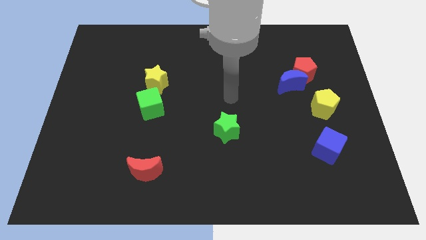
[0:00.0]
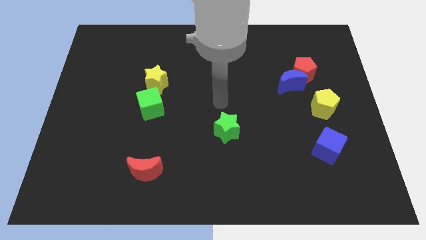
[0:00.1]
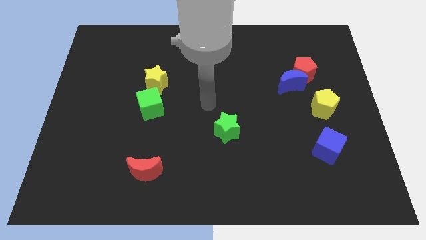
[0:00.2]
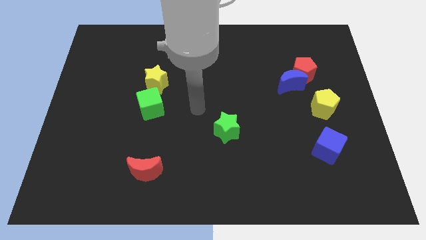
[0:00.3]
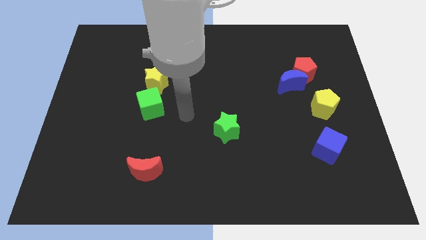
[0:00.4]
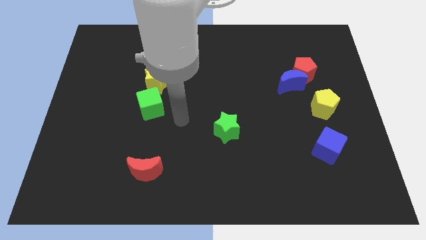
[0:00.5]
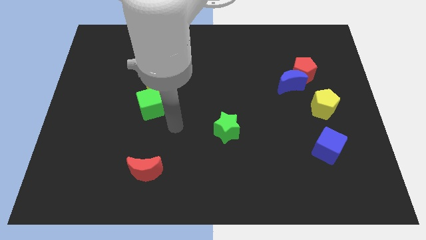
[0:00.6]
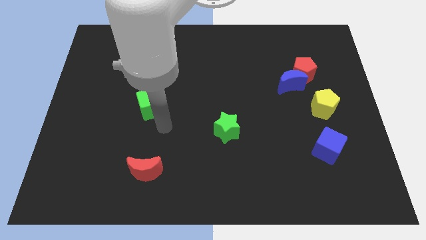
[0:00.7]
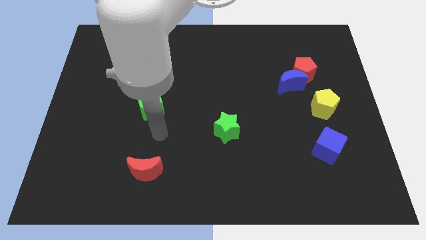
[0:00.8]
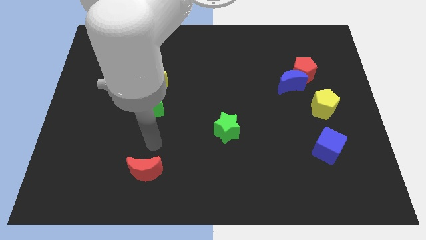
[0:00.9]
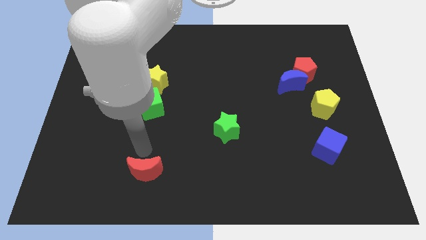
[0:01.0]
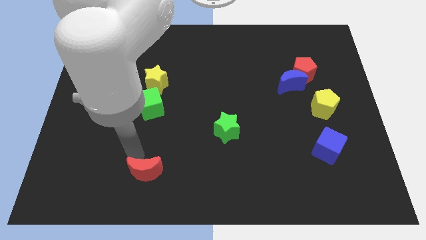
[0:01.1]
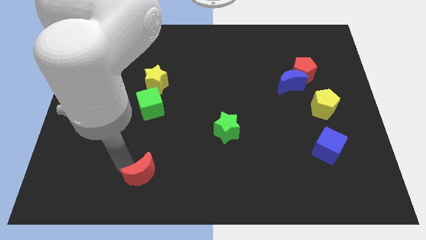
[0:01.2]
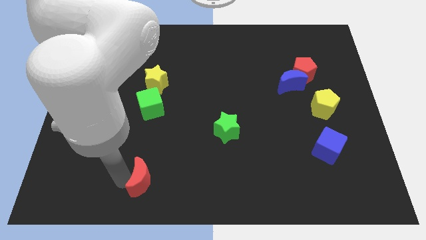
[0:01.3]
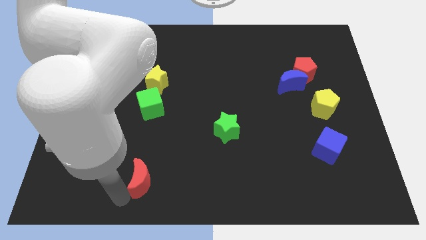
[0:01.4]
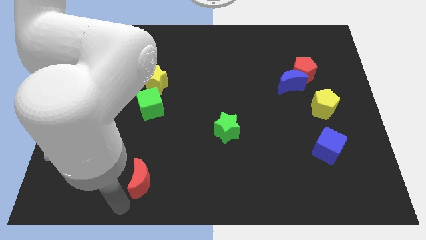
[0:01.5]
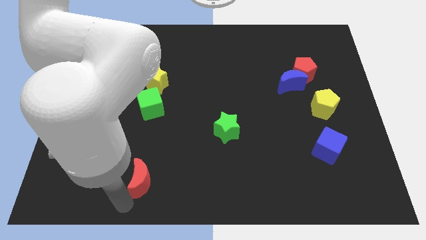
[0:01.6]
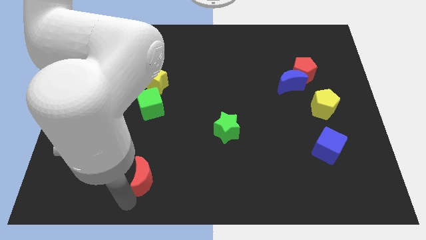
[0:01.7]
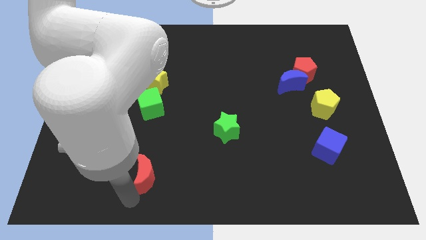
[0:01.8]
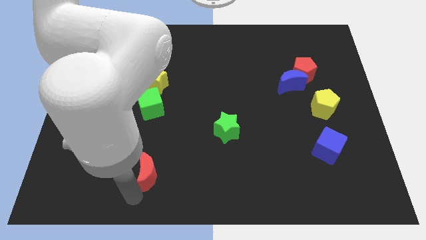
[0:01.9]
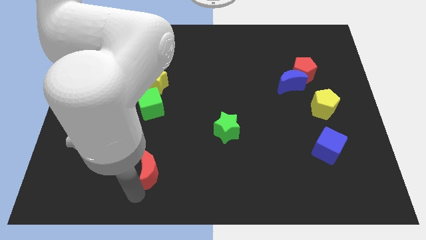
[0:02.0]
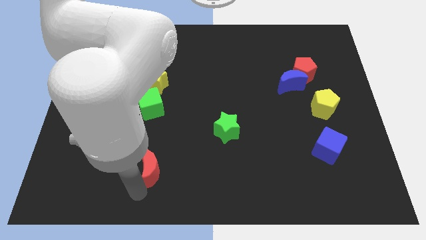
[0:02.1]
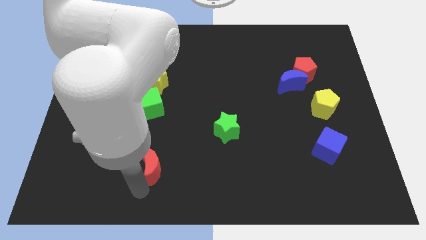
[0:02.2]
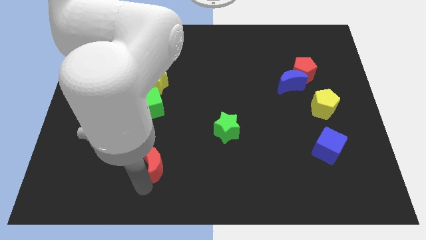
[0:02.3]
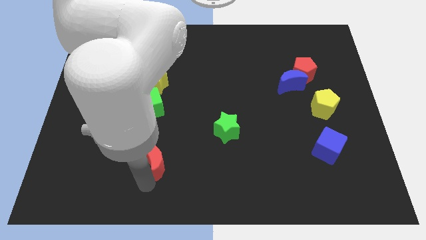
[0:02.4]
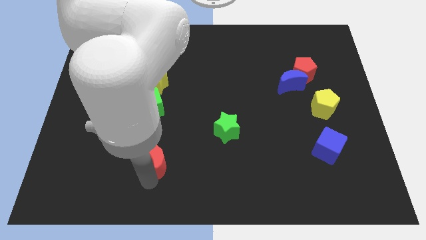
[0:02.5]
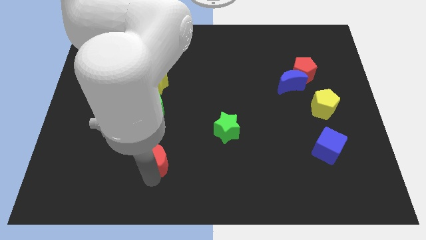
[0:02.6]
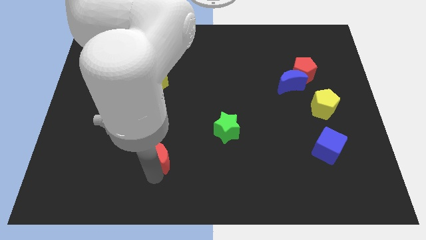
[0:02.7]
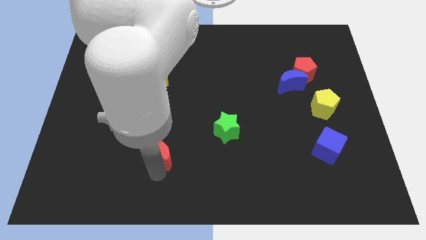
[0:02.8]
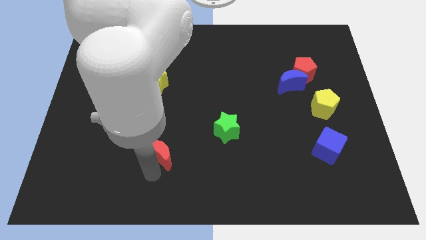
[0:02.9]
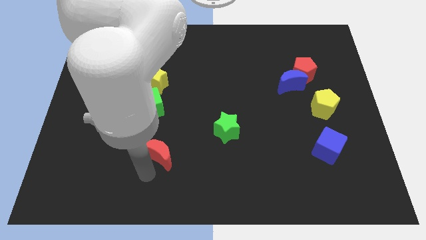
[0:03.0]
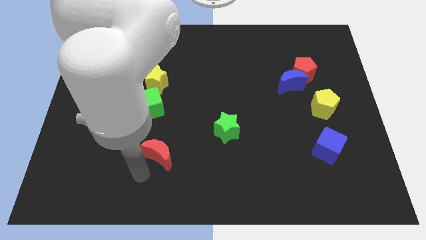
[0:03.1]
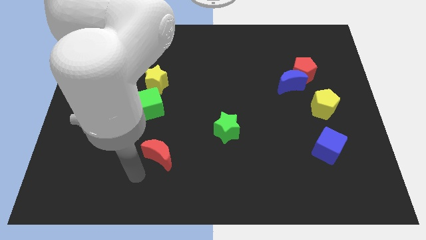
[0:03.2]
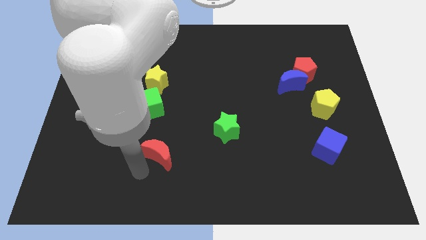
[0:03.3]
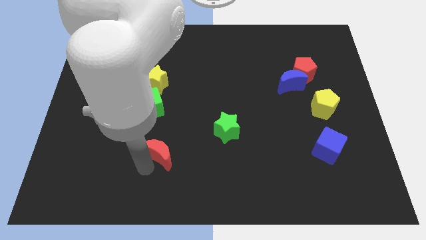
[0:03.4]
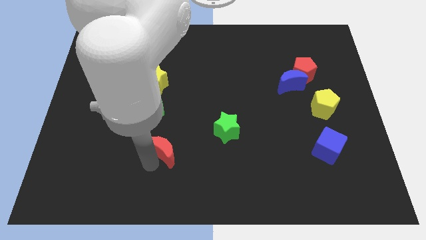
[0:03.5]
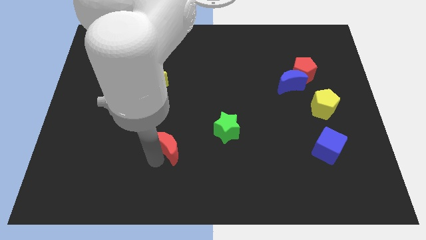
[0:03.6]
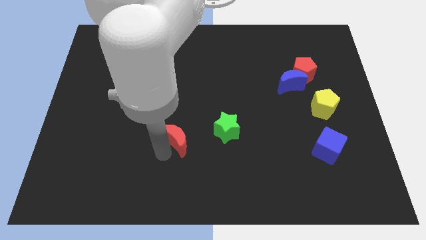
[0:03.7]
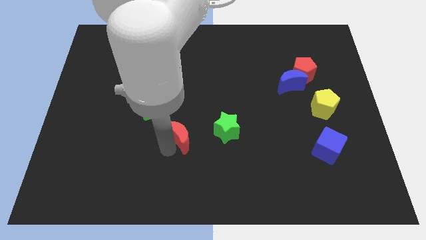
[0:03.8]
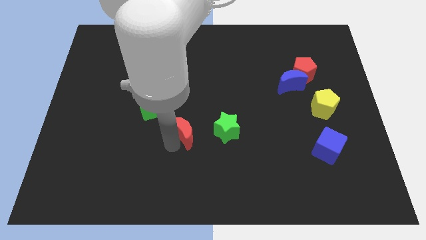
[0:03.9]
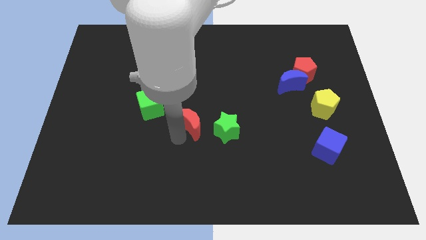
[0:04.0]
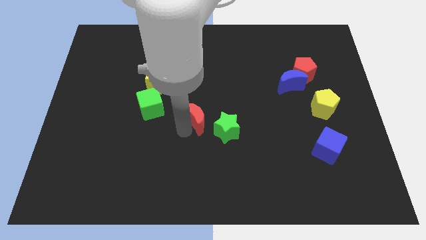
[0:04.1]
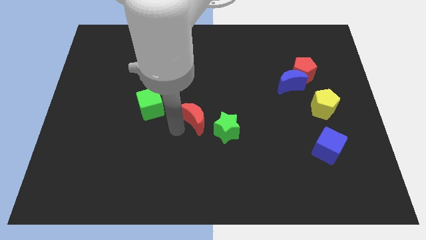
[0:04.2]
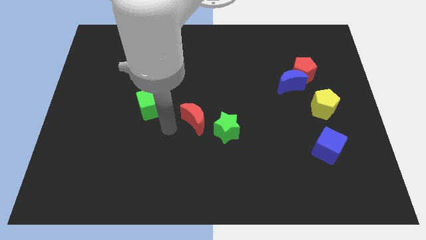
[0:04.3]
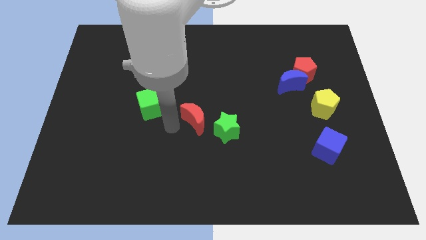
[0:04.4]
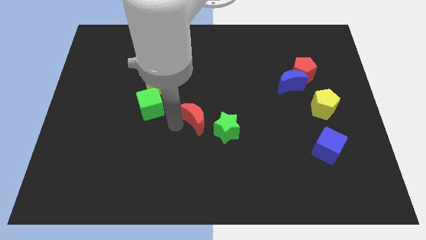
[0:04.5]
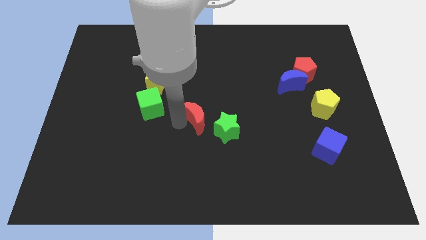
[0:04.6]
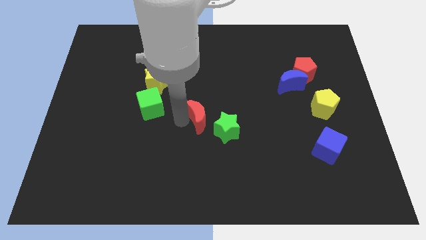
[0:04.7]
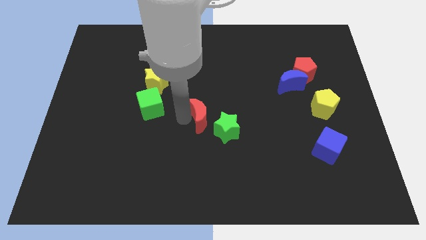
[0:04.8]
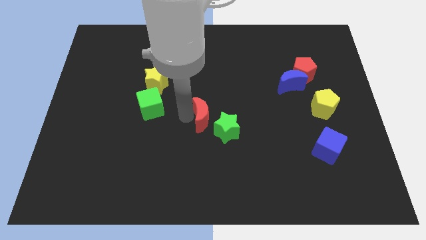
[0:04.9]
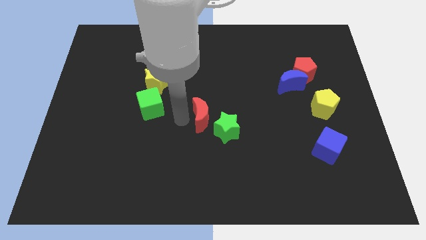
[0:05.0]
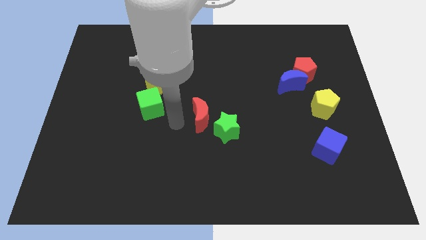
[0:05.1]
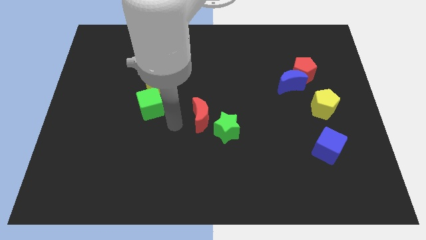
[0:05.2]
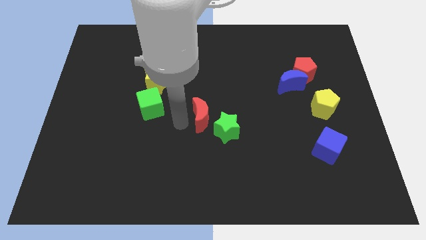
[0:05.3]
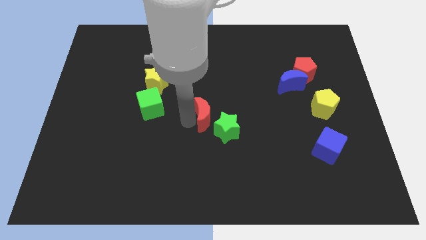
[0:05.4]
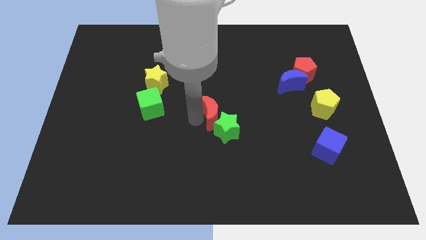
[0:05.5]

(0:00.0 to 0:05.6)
slide the red moon up and right diagonally

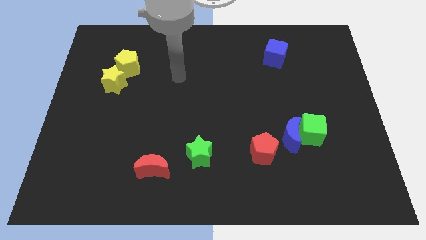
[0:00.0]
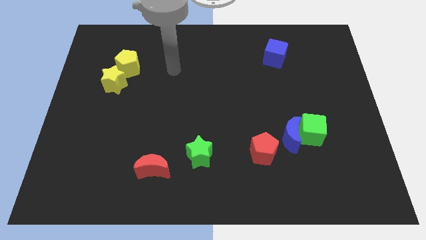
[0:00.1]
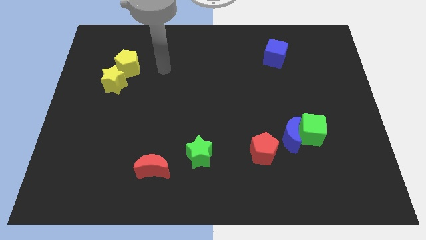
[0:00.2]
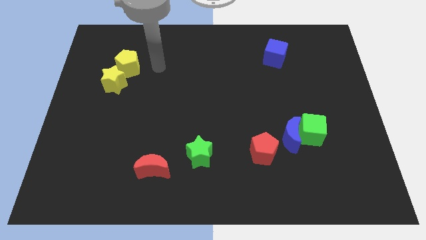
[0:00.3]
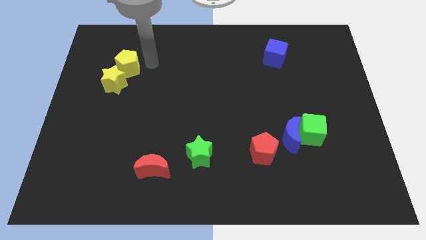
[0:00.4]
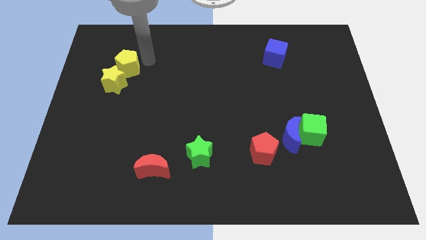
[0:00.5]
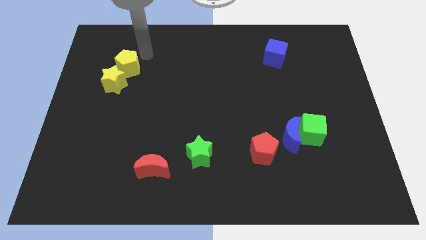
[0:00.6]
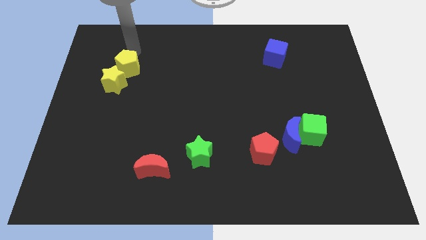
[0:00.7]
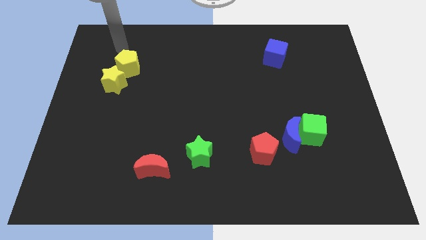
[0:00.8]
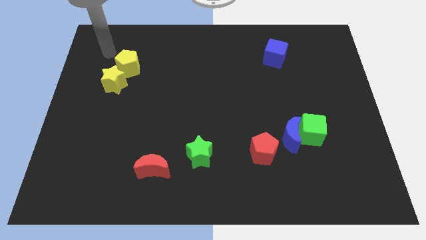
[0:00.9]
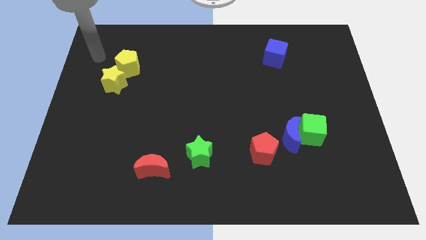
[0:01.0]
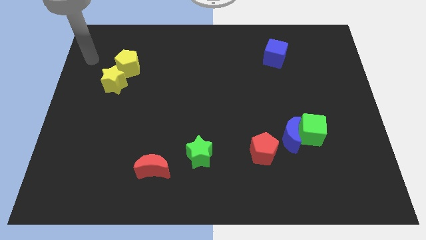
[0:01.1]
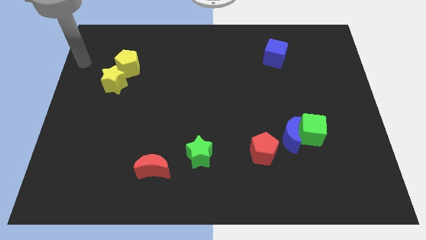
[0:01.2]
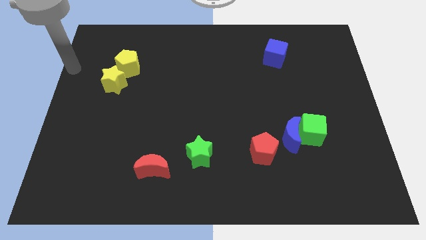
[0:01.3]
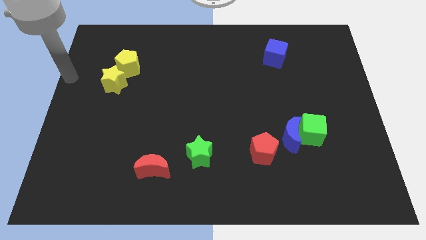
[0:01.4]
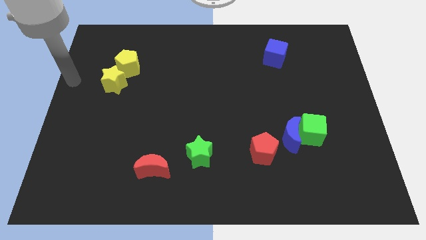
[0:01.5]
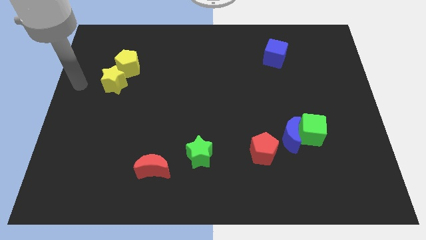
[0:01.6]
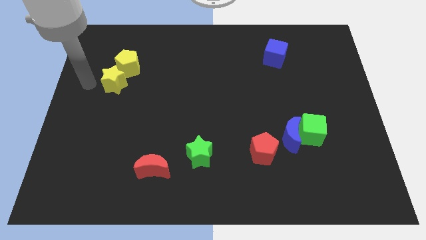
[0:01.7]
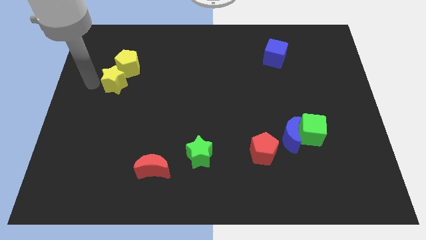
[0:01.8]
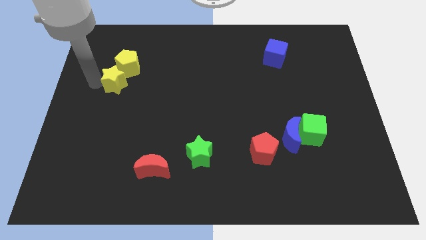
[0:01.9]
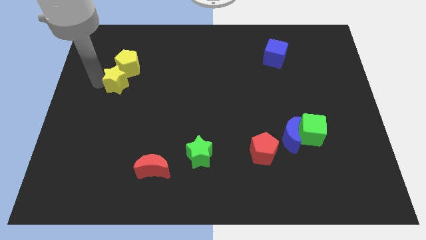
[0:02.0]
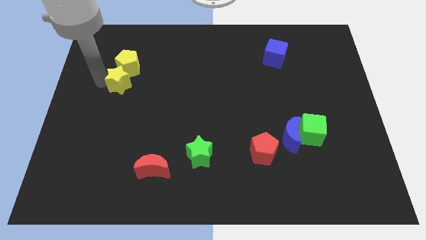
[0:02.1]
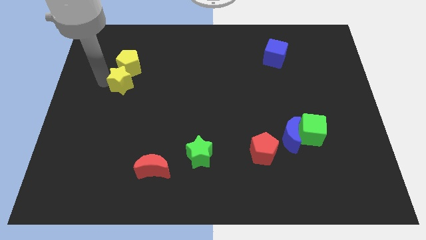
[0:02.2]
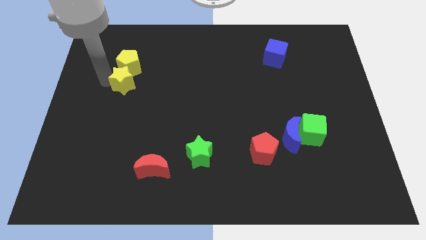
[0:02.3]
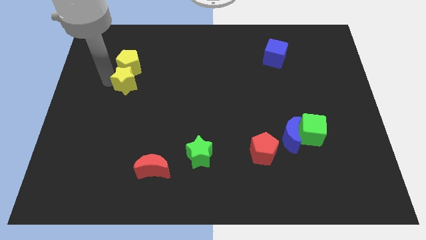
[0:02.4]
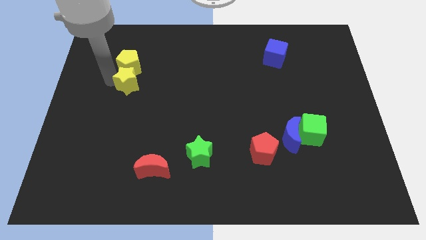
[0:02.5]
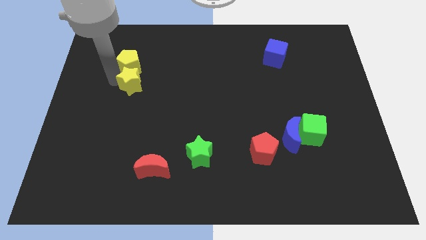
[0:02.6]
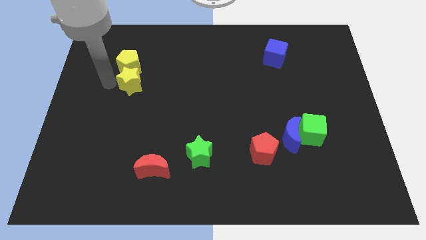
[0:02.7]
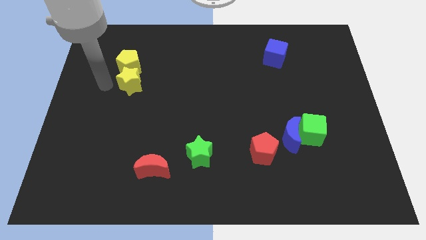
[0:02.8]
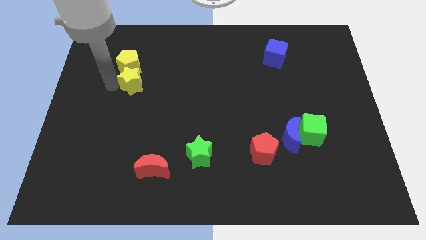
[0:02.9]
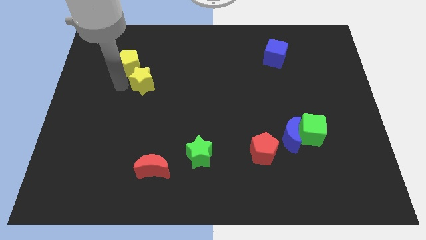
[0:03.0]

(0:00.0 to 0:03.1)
slightly slide the yellow star right
